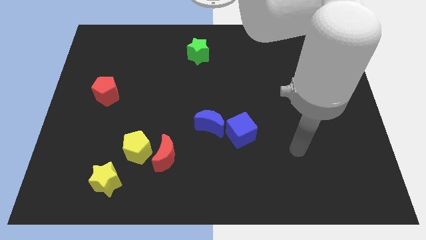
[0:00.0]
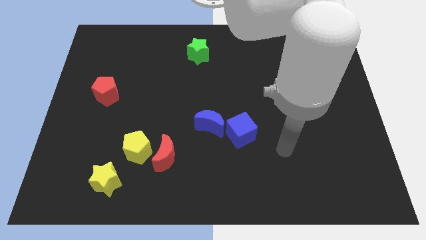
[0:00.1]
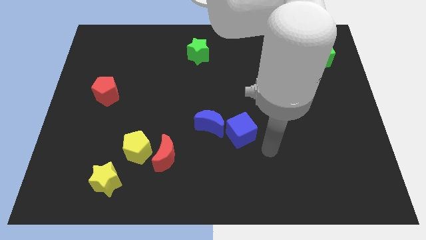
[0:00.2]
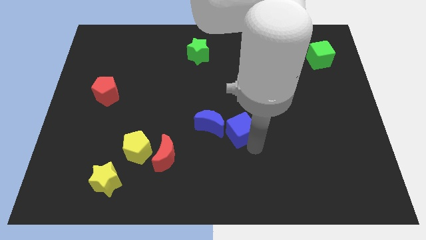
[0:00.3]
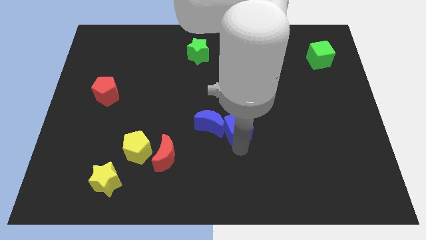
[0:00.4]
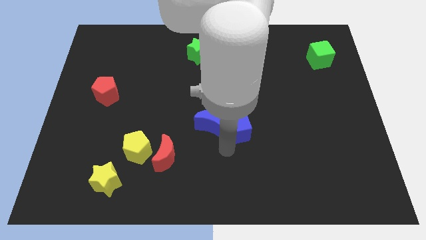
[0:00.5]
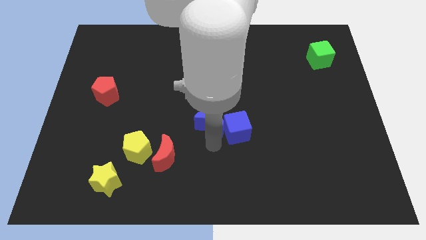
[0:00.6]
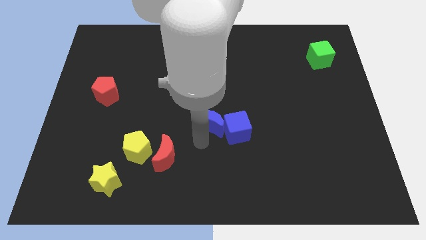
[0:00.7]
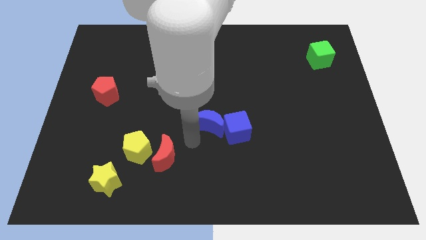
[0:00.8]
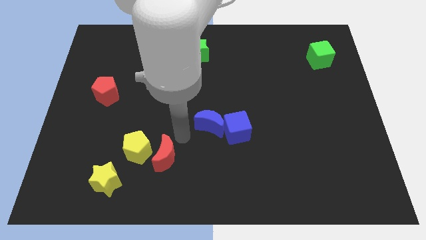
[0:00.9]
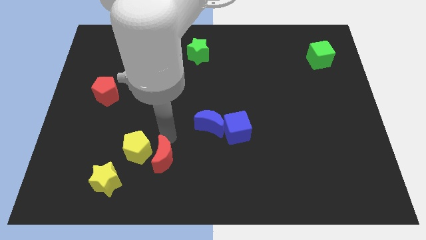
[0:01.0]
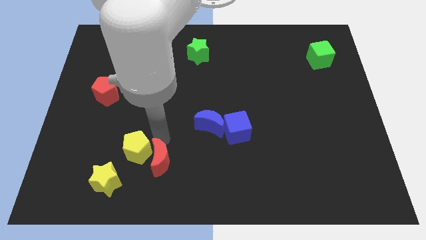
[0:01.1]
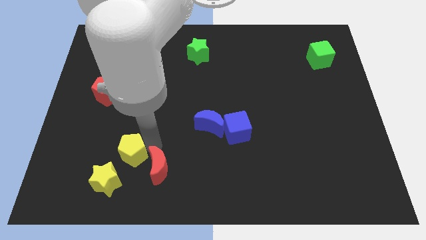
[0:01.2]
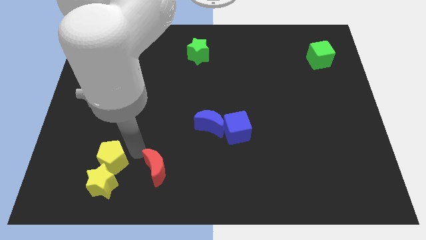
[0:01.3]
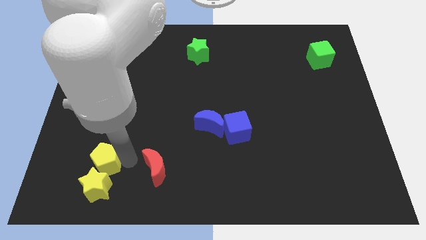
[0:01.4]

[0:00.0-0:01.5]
separate the red moon from the yellow pentagon

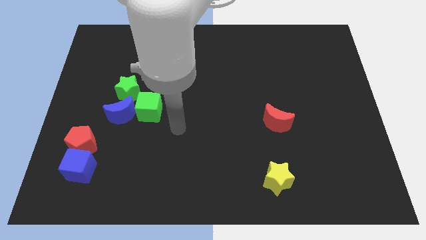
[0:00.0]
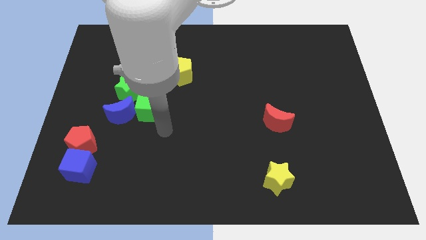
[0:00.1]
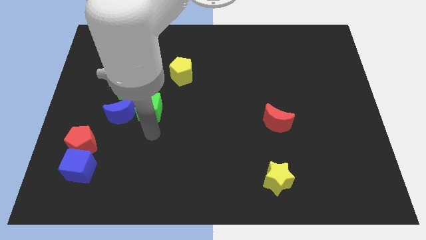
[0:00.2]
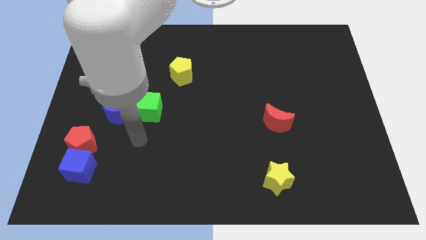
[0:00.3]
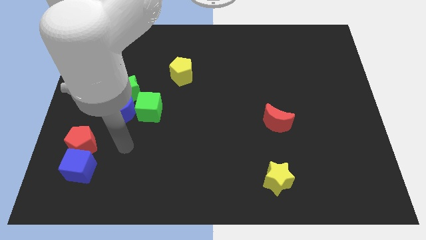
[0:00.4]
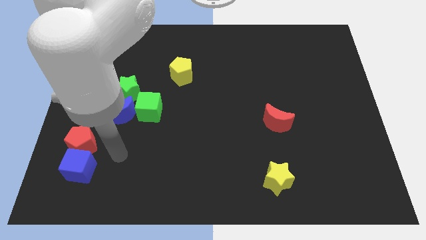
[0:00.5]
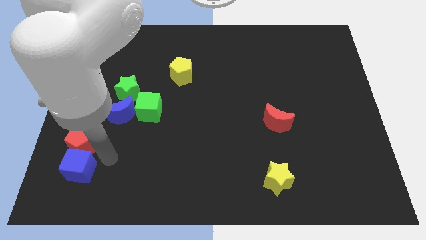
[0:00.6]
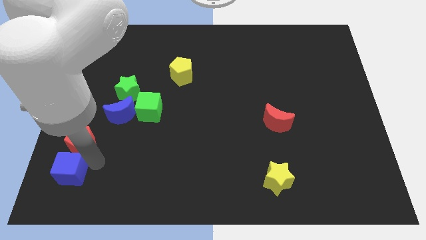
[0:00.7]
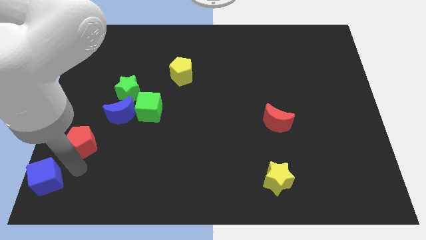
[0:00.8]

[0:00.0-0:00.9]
pull the red pentagon apart from the blue cube

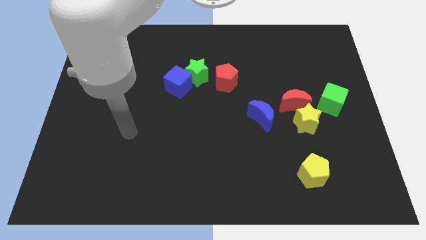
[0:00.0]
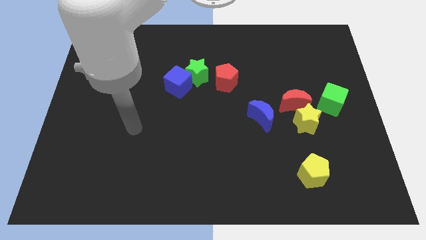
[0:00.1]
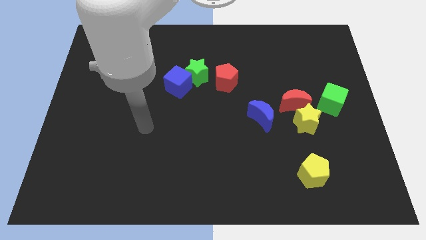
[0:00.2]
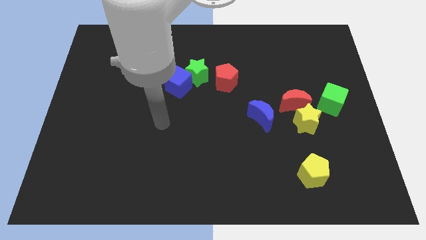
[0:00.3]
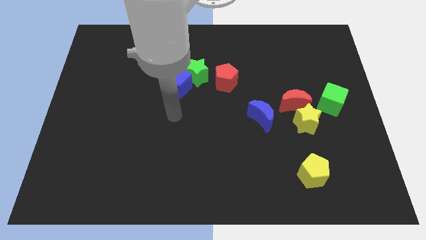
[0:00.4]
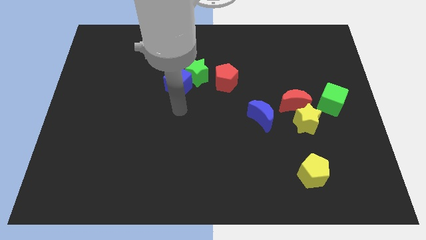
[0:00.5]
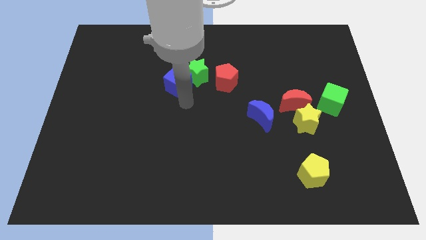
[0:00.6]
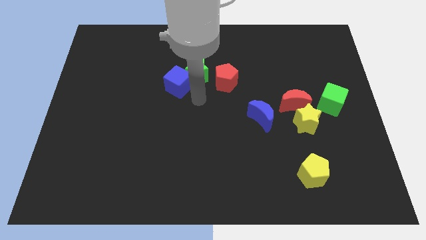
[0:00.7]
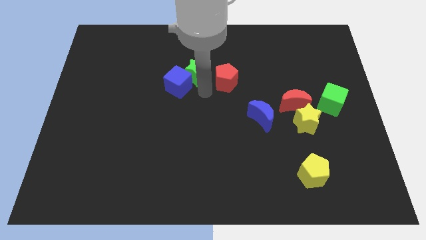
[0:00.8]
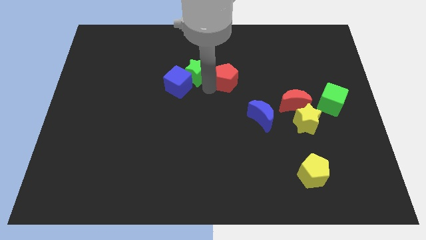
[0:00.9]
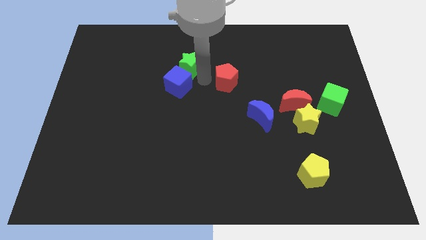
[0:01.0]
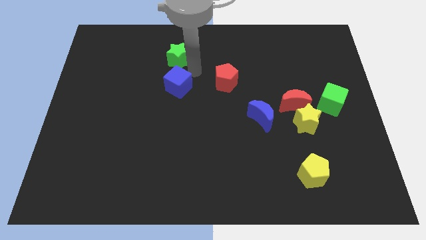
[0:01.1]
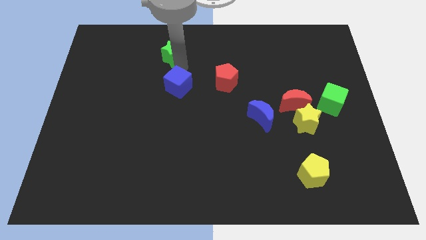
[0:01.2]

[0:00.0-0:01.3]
move the blue cube away from the green star

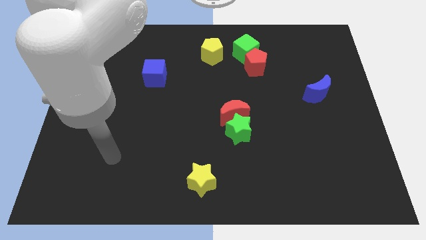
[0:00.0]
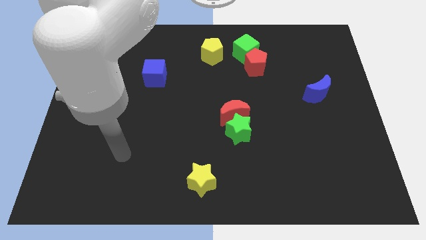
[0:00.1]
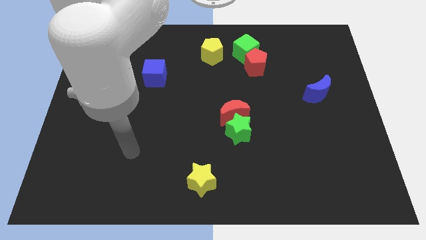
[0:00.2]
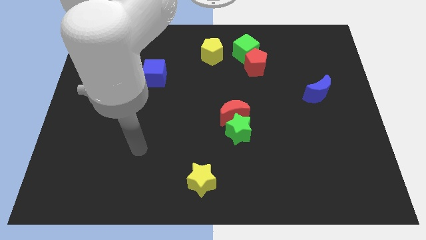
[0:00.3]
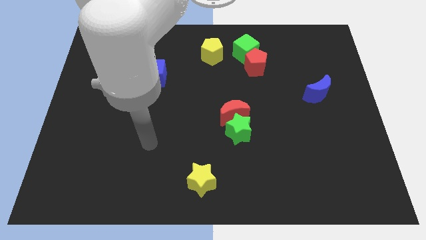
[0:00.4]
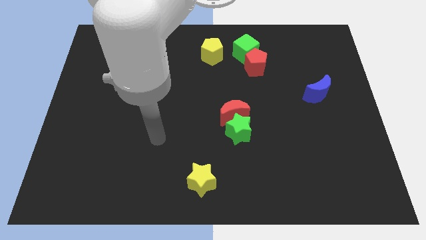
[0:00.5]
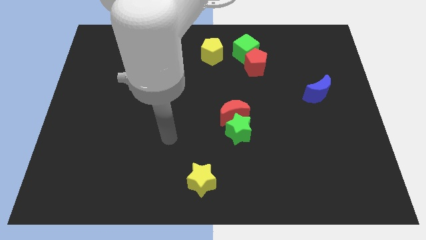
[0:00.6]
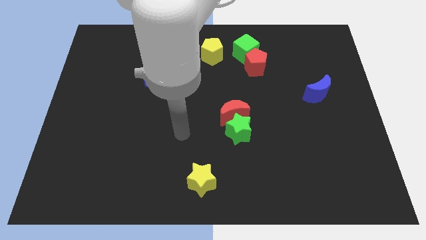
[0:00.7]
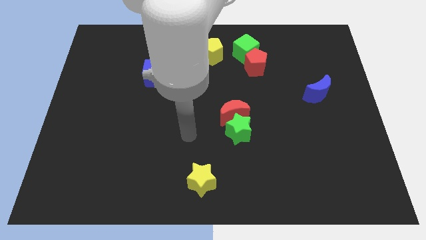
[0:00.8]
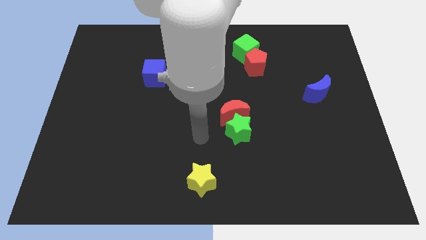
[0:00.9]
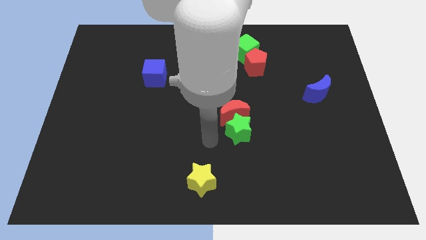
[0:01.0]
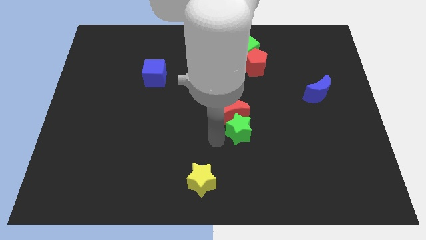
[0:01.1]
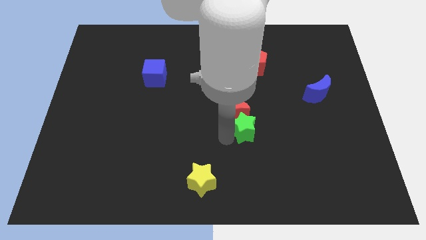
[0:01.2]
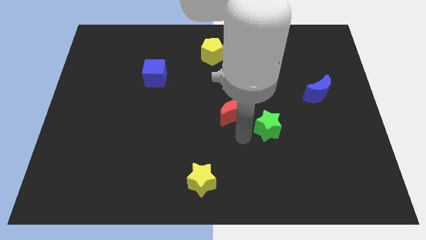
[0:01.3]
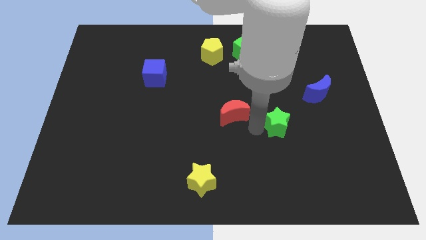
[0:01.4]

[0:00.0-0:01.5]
separate the red moon from the green star

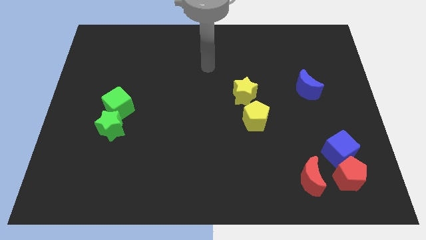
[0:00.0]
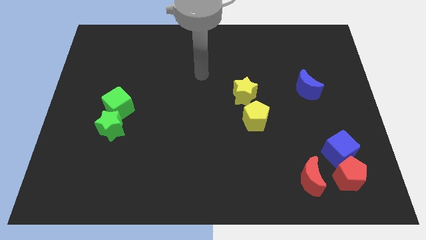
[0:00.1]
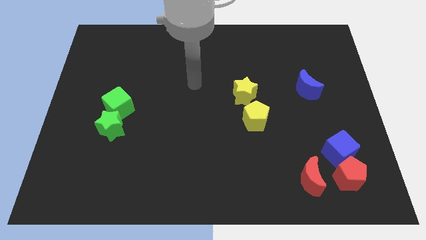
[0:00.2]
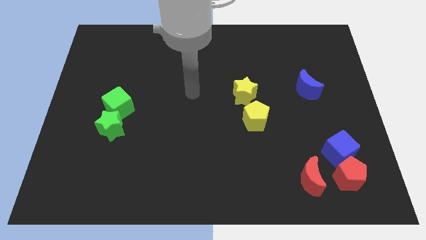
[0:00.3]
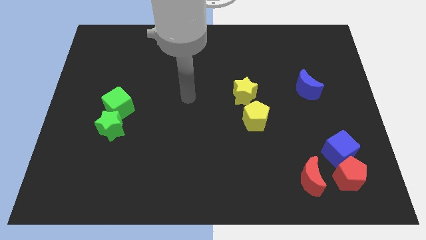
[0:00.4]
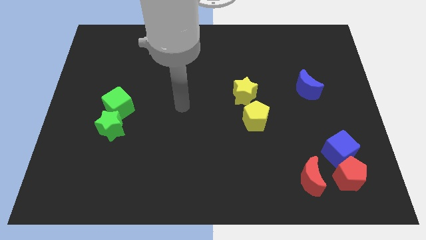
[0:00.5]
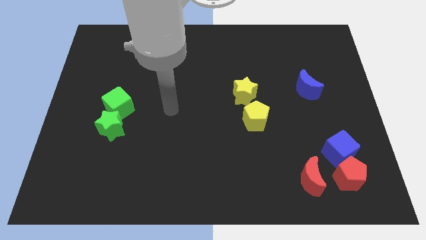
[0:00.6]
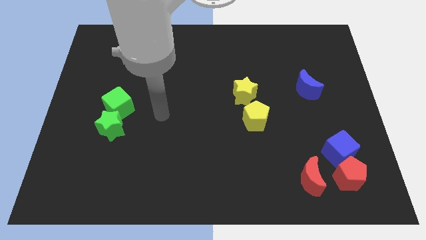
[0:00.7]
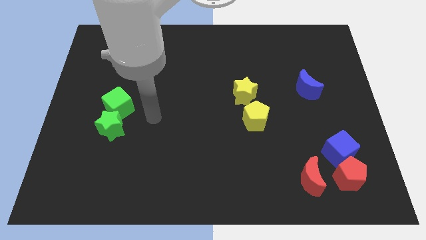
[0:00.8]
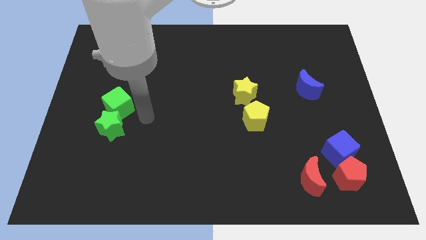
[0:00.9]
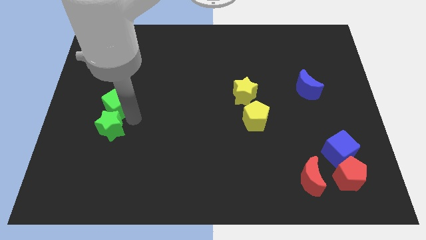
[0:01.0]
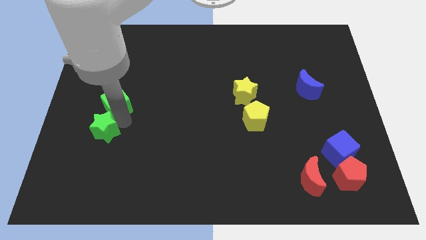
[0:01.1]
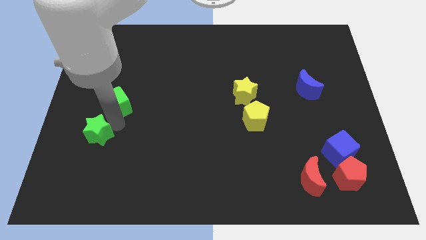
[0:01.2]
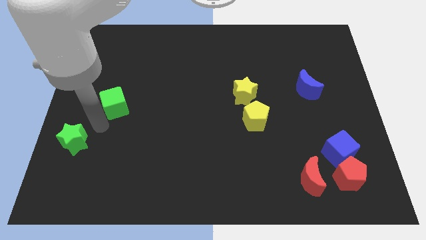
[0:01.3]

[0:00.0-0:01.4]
pull the green cube apart from the green star

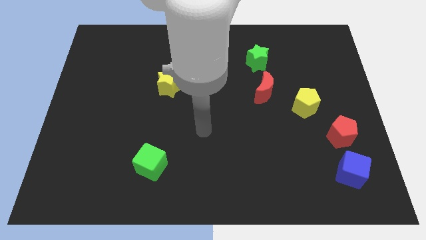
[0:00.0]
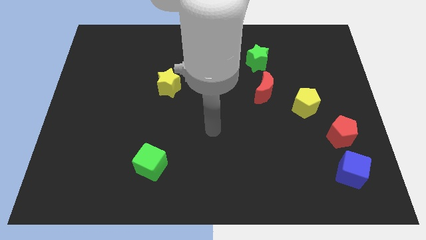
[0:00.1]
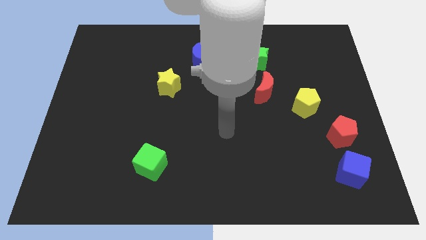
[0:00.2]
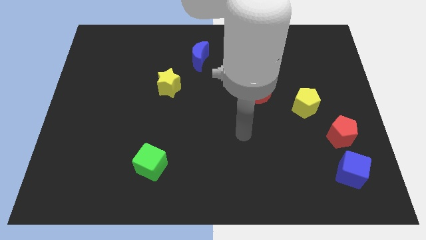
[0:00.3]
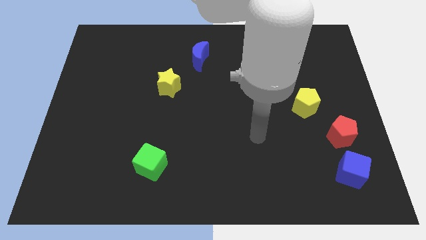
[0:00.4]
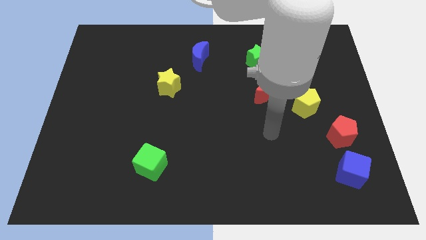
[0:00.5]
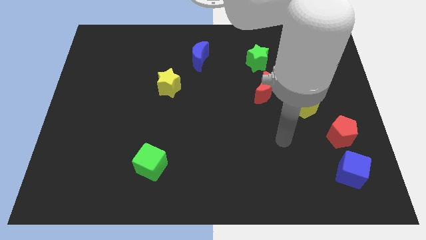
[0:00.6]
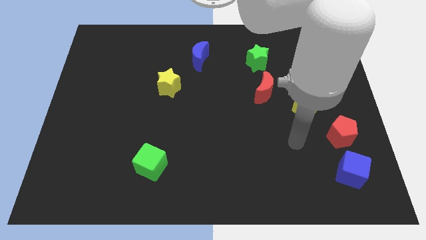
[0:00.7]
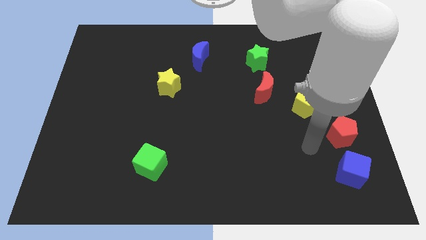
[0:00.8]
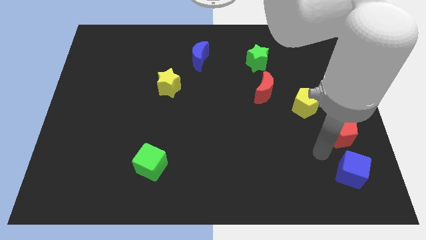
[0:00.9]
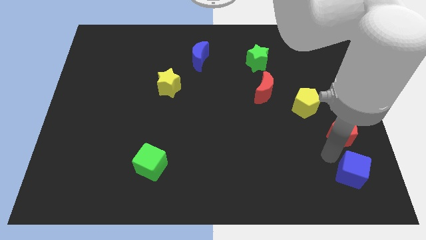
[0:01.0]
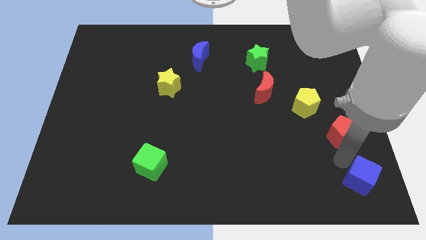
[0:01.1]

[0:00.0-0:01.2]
move the red pentagon away from the blue cube

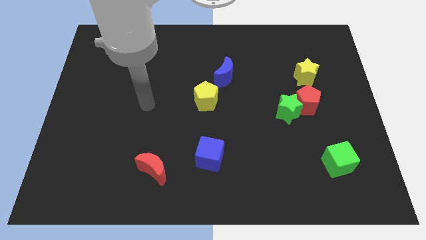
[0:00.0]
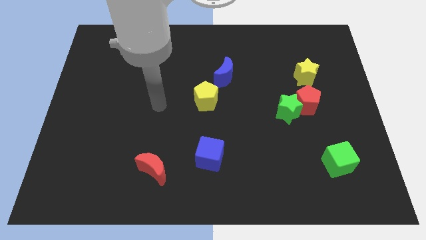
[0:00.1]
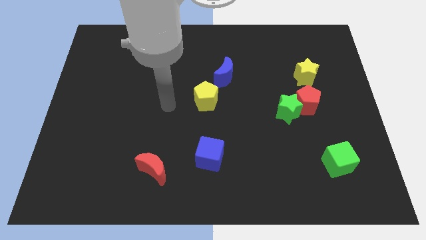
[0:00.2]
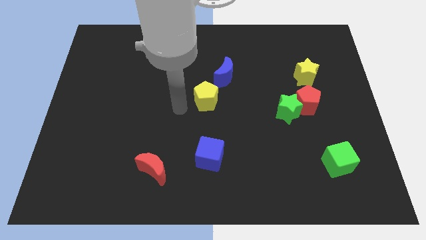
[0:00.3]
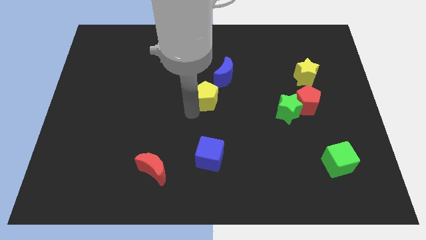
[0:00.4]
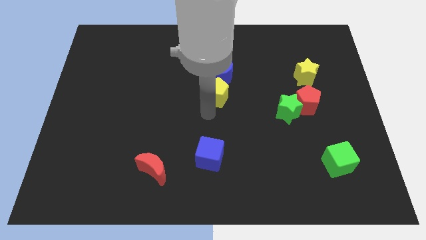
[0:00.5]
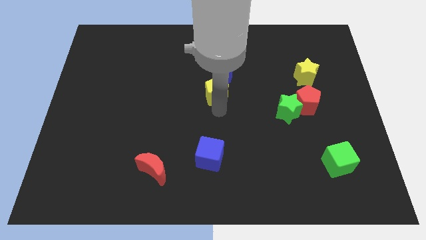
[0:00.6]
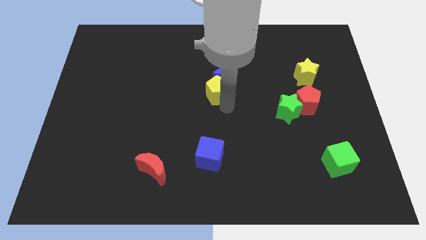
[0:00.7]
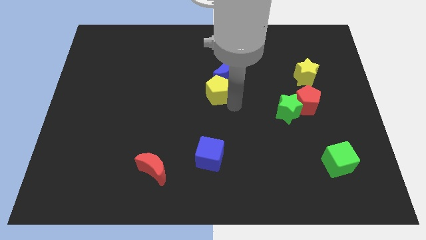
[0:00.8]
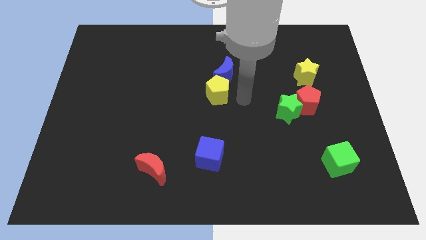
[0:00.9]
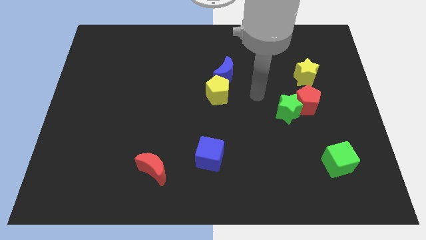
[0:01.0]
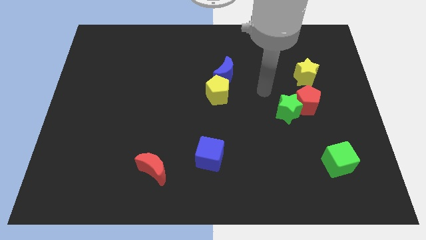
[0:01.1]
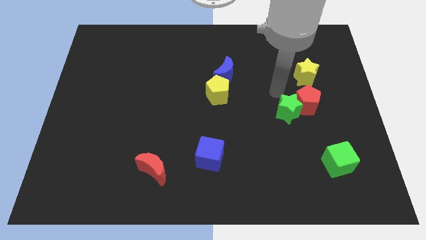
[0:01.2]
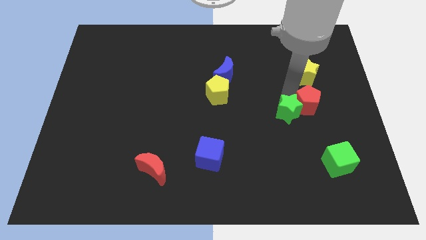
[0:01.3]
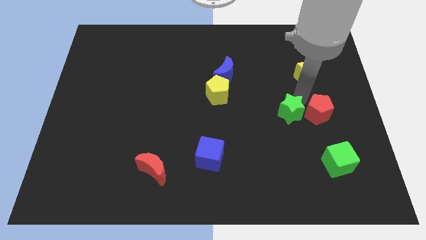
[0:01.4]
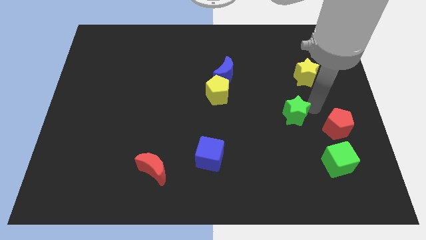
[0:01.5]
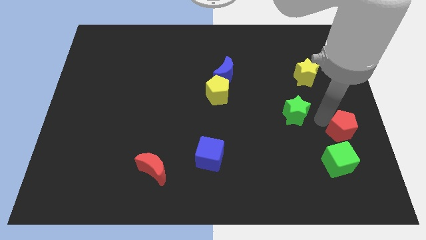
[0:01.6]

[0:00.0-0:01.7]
move the green star away from the red pentagon
